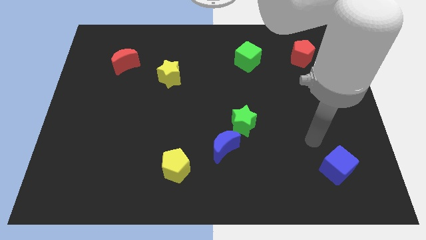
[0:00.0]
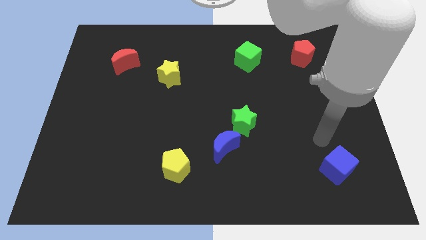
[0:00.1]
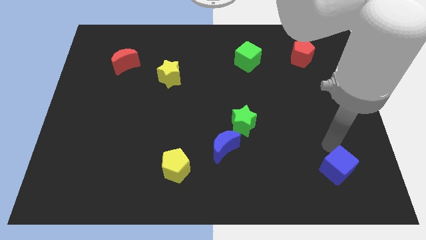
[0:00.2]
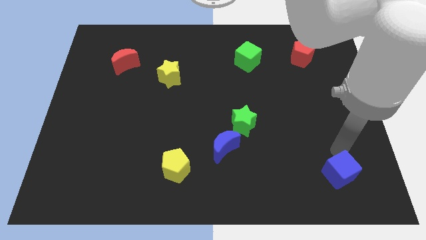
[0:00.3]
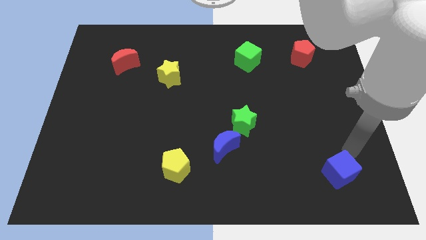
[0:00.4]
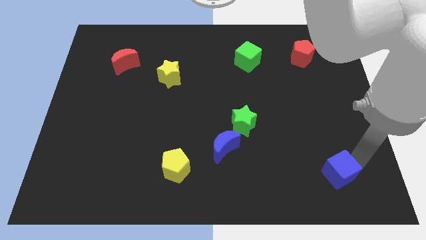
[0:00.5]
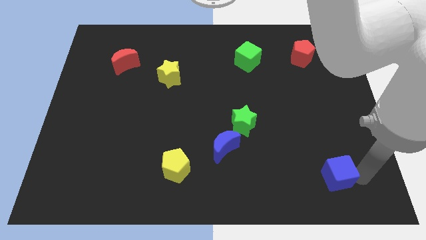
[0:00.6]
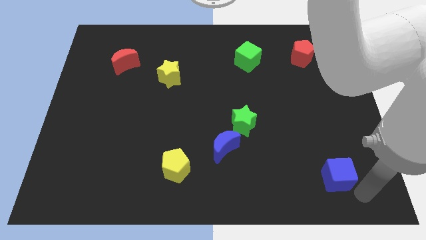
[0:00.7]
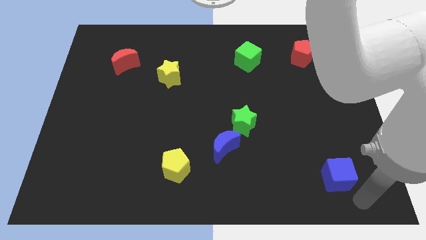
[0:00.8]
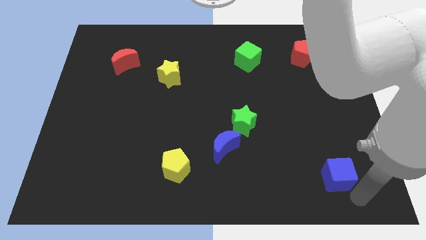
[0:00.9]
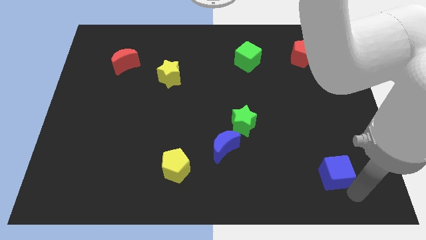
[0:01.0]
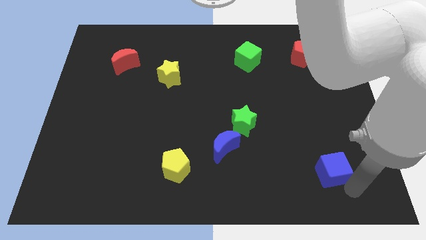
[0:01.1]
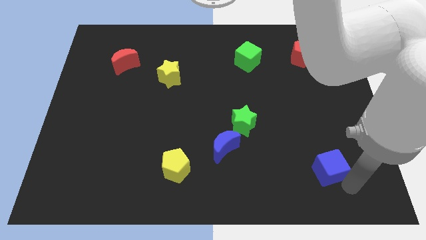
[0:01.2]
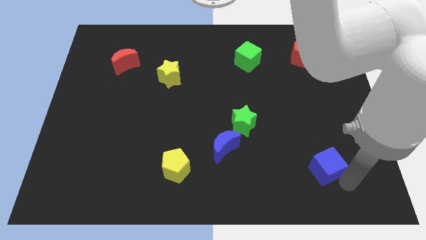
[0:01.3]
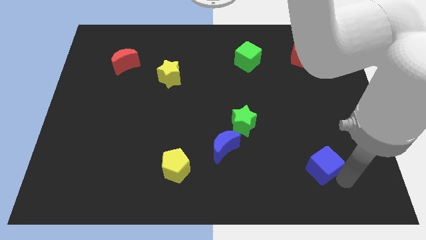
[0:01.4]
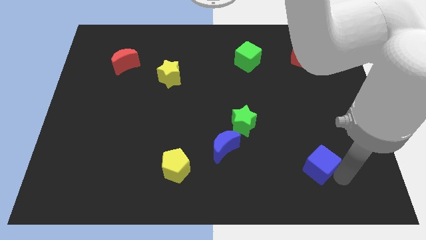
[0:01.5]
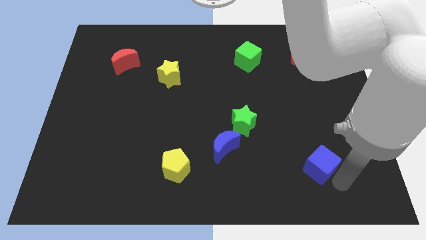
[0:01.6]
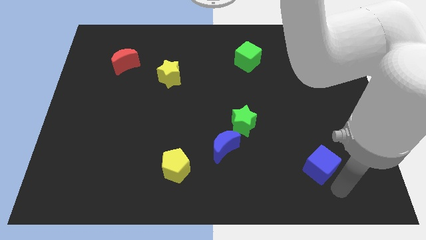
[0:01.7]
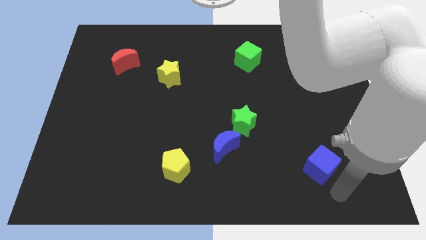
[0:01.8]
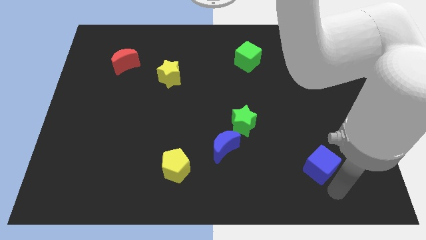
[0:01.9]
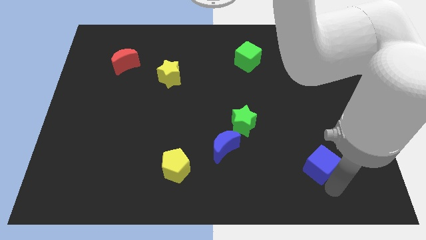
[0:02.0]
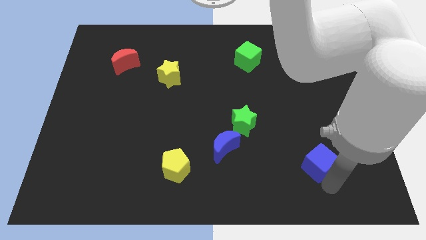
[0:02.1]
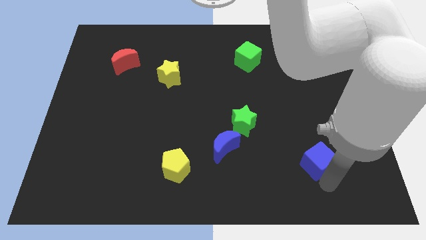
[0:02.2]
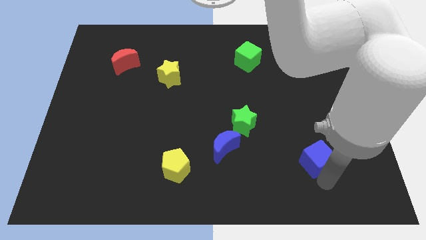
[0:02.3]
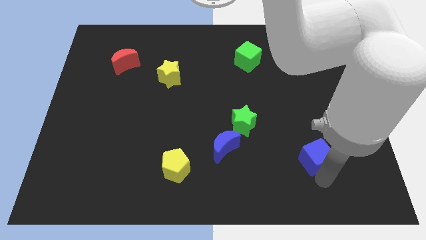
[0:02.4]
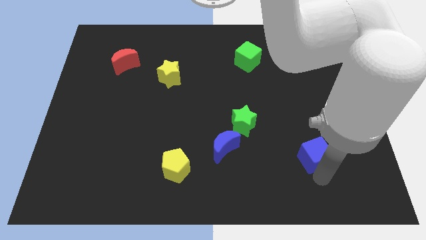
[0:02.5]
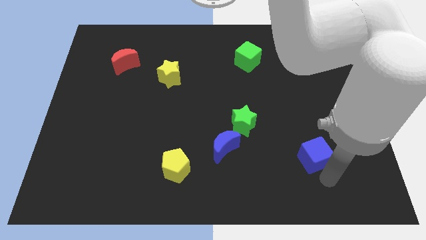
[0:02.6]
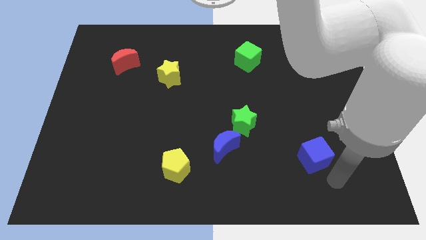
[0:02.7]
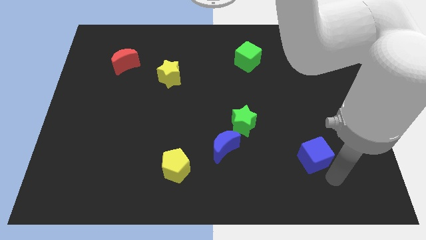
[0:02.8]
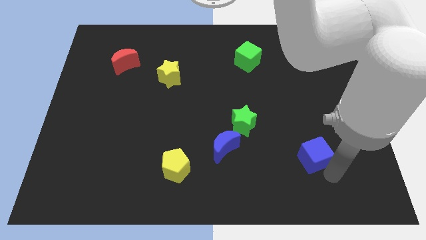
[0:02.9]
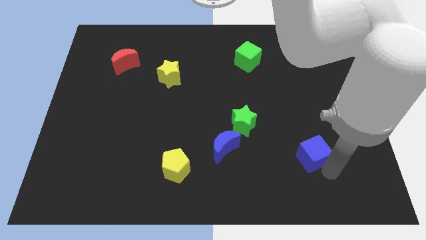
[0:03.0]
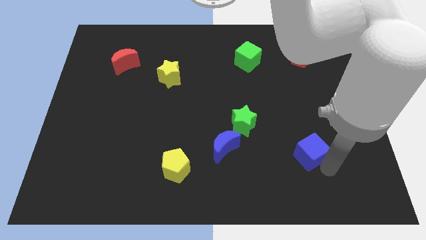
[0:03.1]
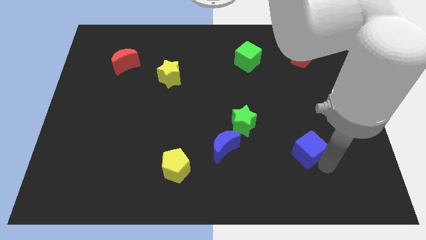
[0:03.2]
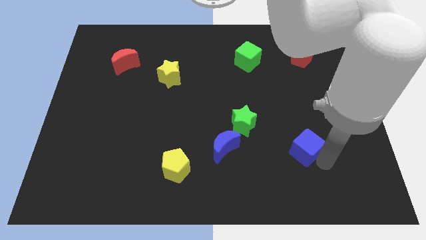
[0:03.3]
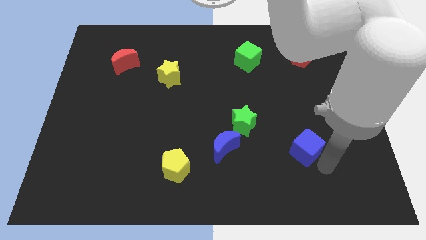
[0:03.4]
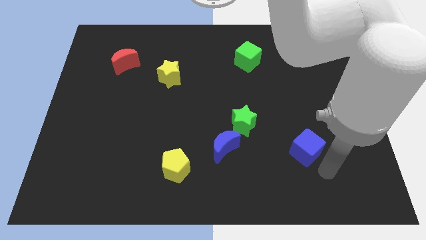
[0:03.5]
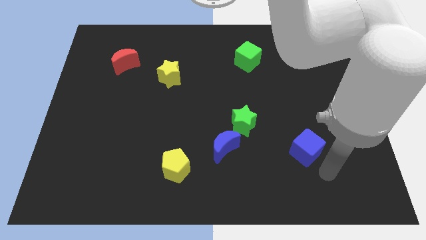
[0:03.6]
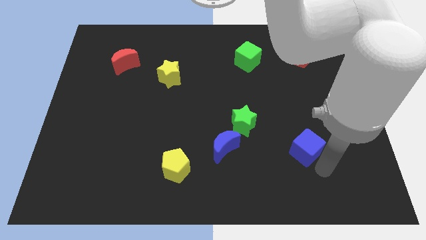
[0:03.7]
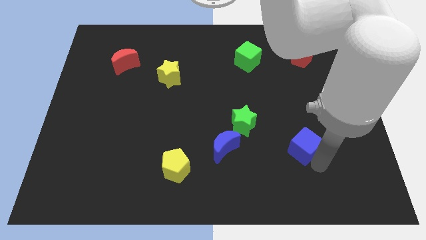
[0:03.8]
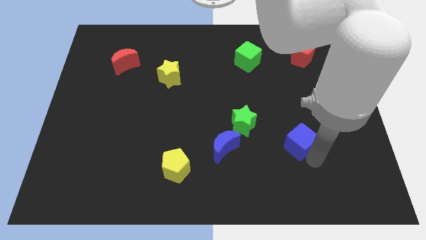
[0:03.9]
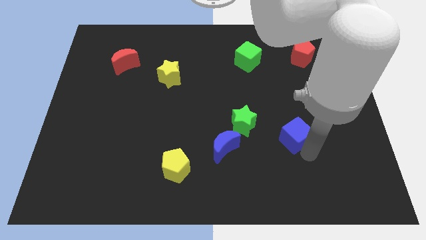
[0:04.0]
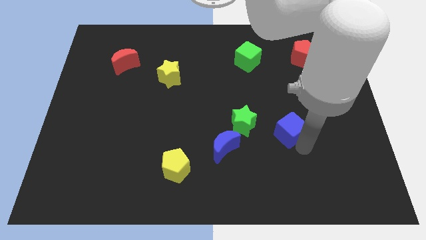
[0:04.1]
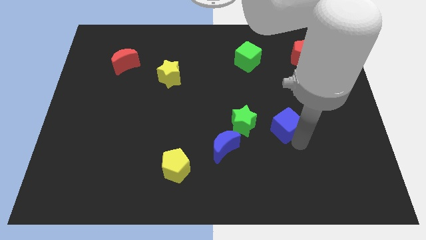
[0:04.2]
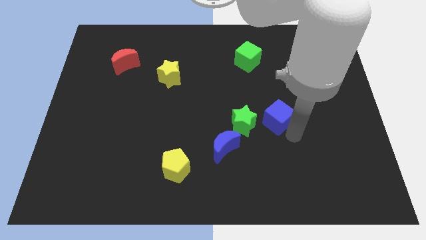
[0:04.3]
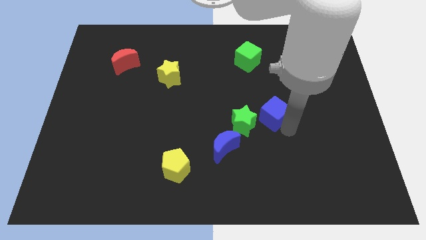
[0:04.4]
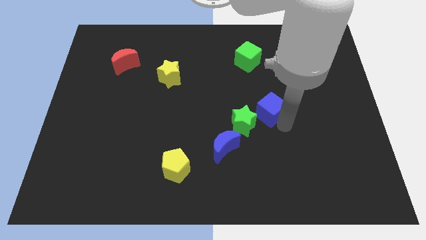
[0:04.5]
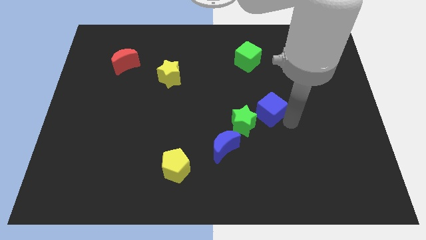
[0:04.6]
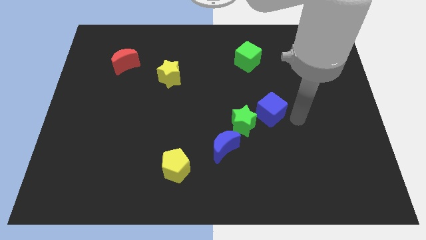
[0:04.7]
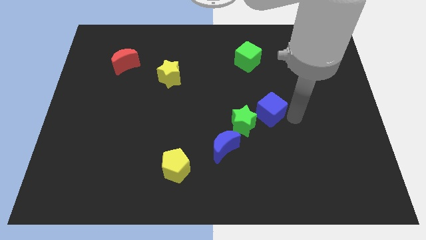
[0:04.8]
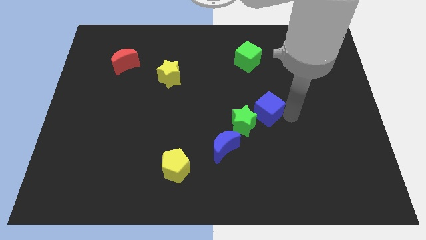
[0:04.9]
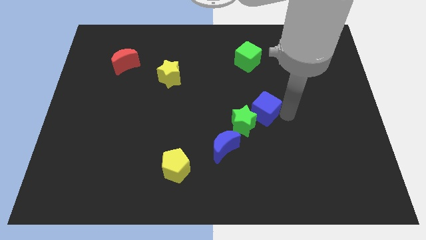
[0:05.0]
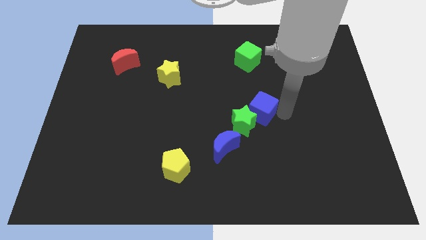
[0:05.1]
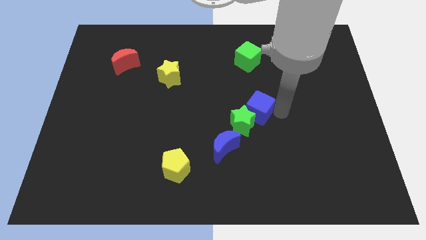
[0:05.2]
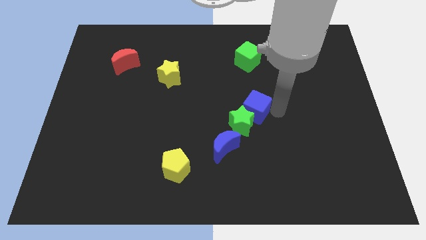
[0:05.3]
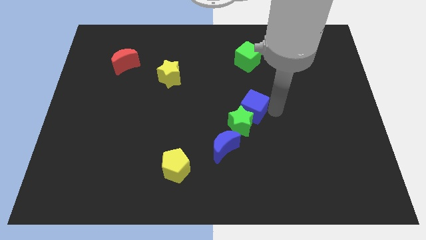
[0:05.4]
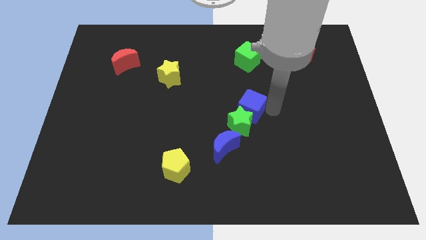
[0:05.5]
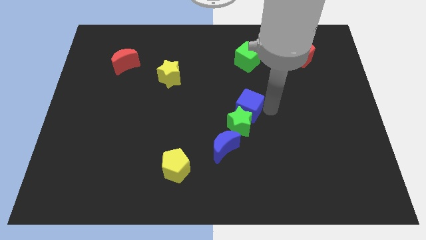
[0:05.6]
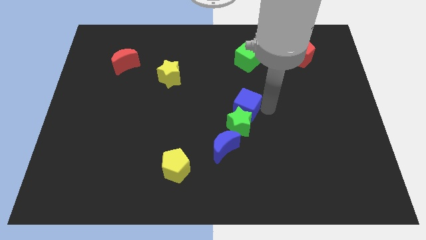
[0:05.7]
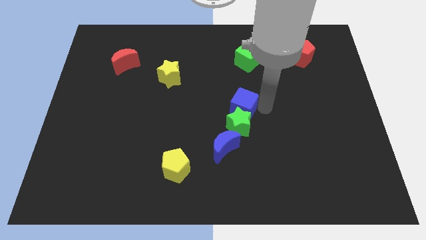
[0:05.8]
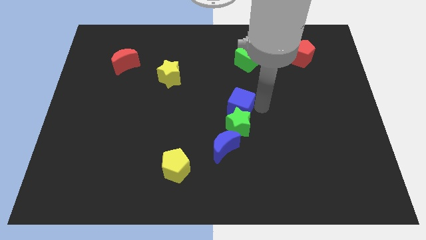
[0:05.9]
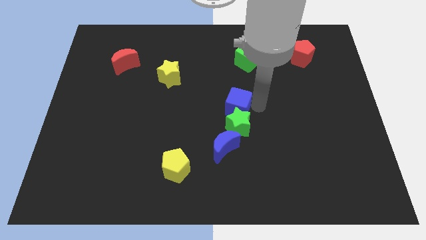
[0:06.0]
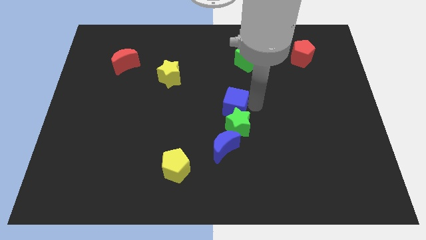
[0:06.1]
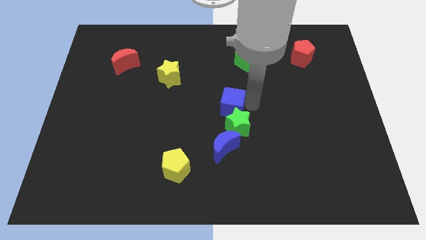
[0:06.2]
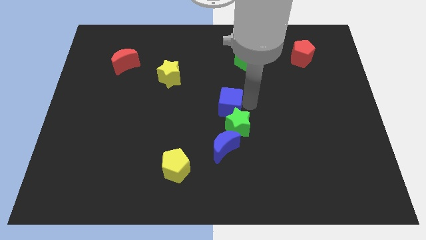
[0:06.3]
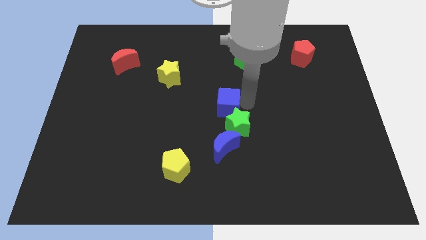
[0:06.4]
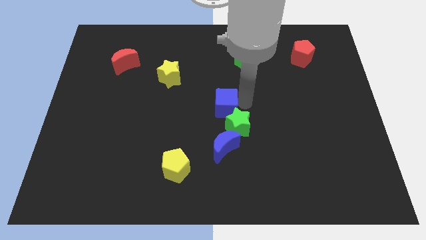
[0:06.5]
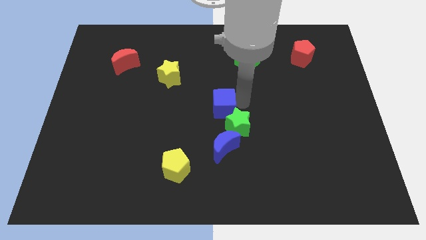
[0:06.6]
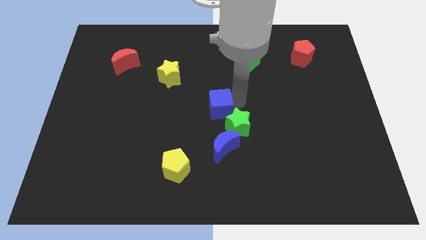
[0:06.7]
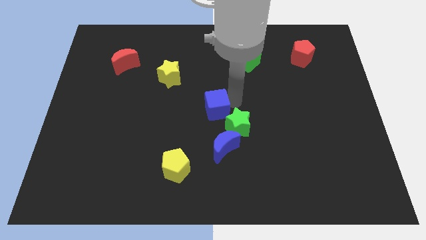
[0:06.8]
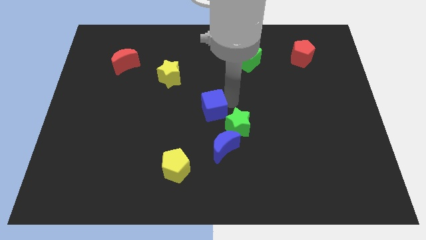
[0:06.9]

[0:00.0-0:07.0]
put the blue cube to the left side of the green star
